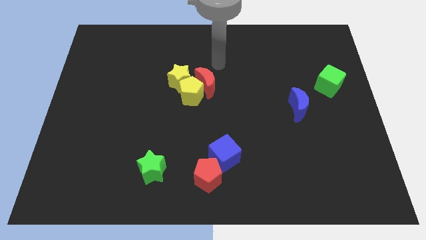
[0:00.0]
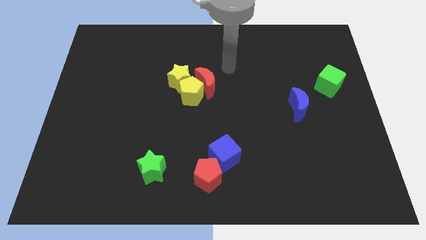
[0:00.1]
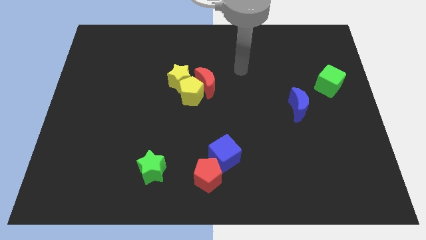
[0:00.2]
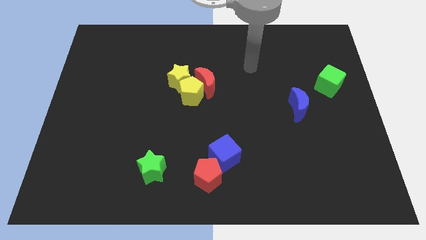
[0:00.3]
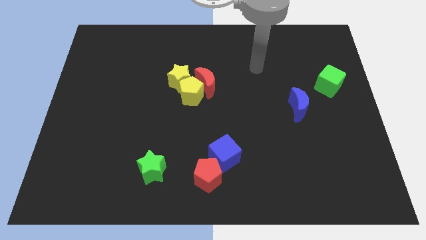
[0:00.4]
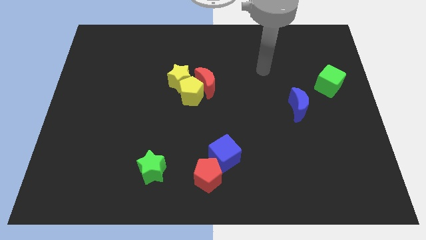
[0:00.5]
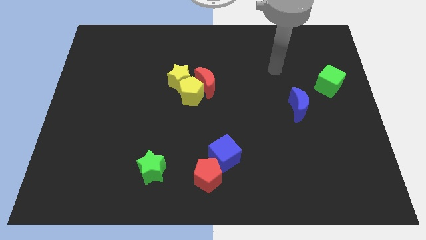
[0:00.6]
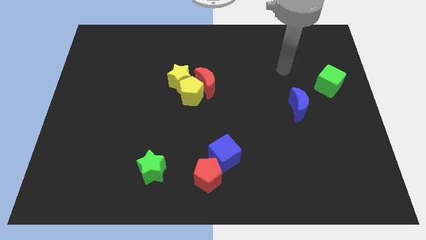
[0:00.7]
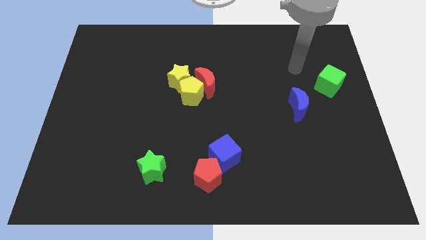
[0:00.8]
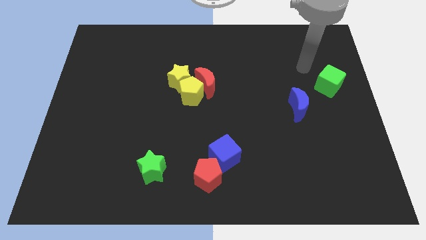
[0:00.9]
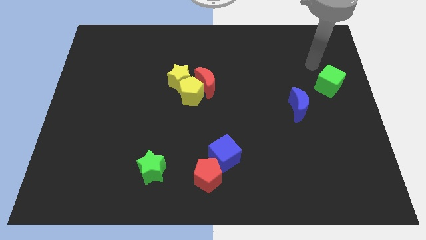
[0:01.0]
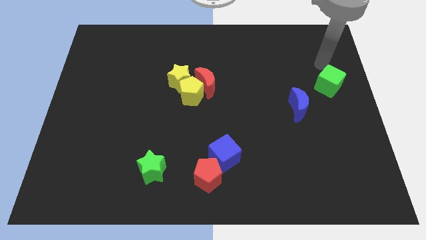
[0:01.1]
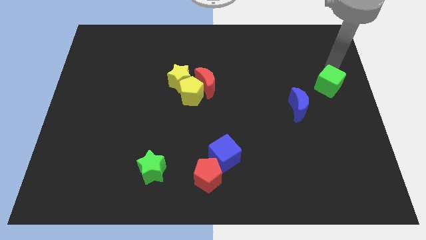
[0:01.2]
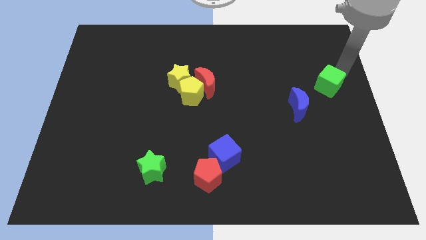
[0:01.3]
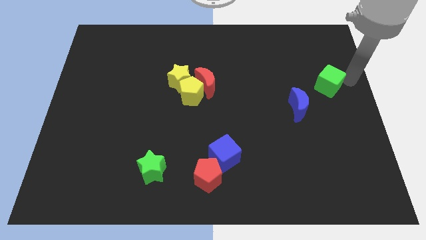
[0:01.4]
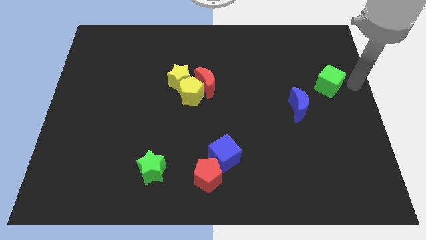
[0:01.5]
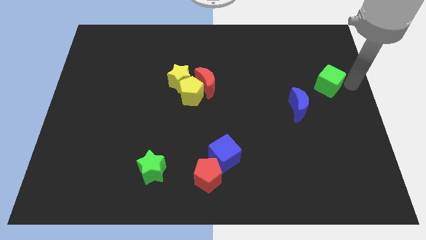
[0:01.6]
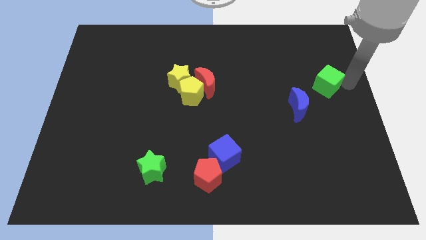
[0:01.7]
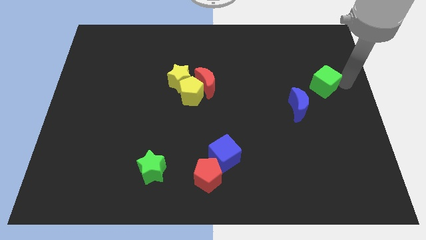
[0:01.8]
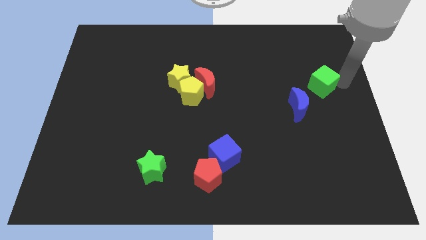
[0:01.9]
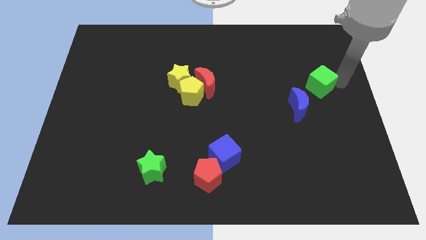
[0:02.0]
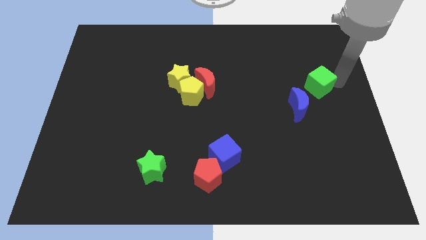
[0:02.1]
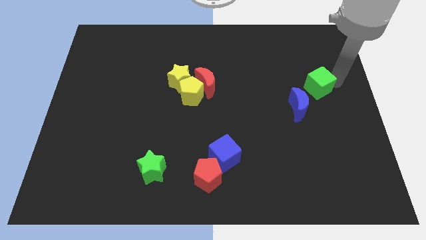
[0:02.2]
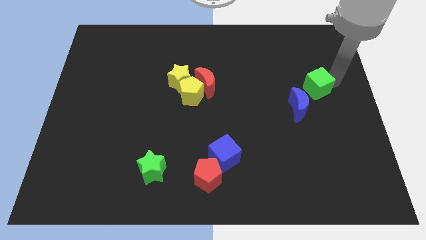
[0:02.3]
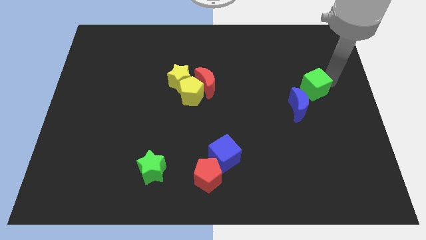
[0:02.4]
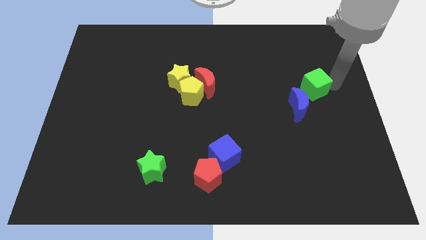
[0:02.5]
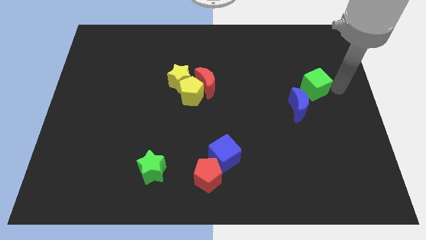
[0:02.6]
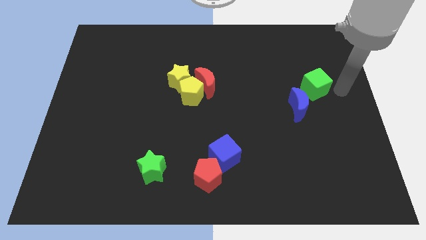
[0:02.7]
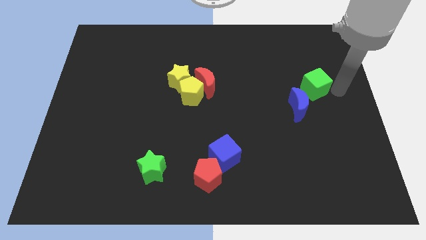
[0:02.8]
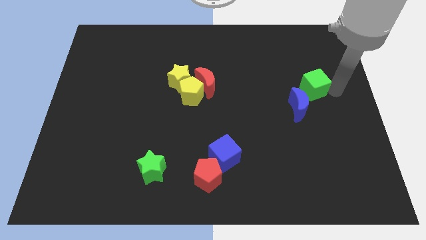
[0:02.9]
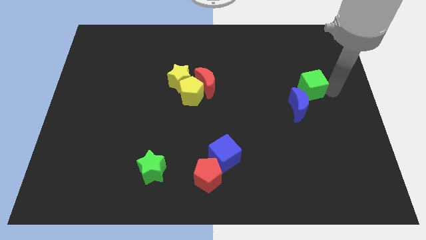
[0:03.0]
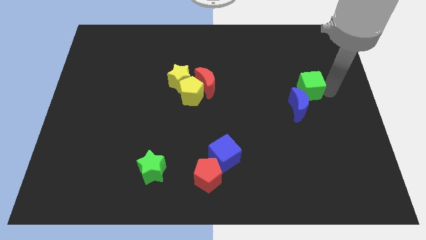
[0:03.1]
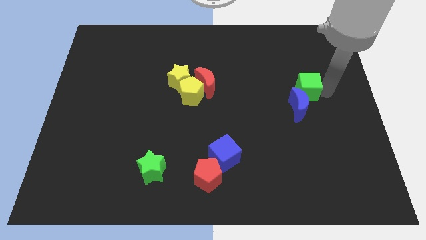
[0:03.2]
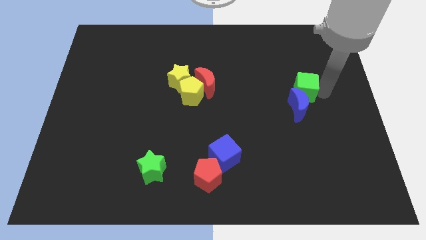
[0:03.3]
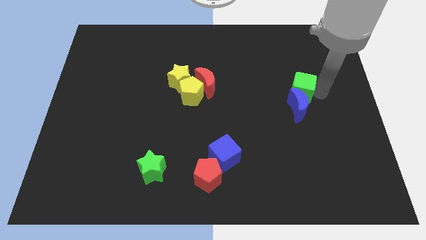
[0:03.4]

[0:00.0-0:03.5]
move the green cube somewhat left

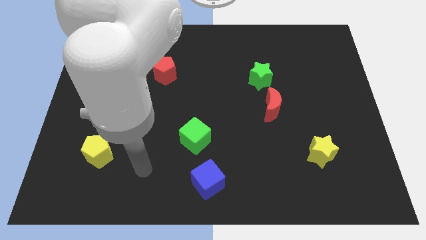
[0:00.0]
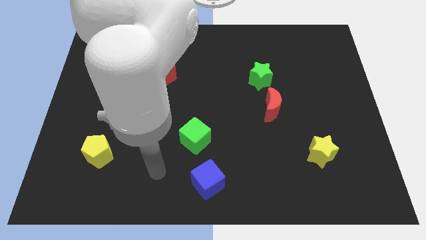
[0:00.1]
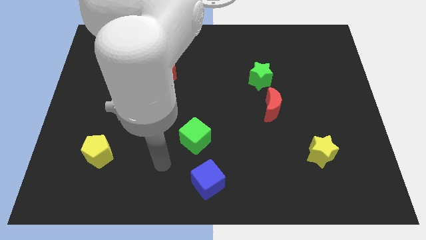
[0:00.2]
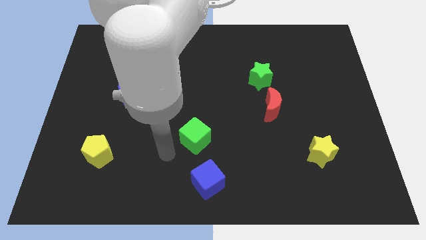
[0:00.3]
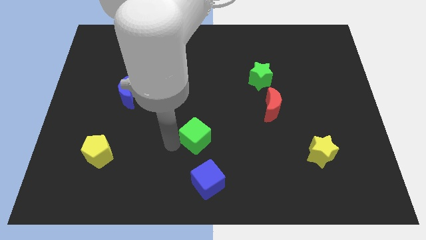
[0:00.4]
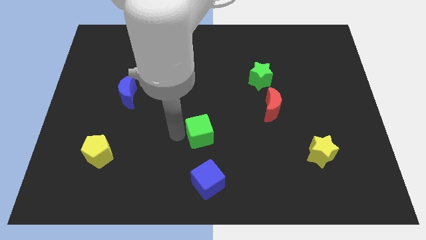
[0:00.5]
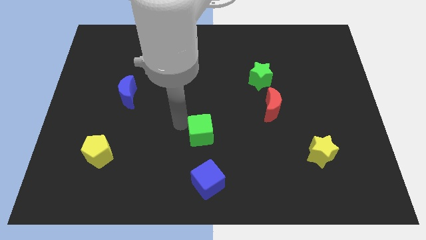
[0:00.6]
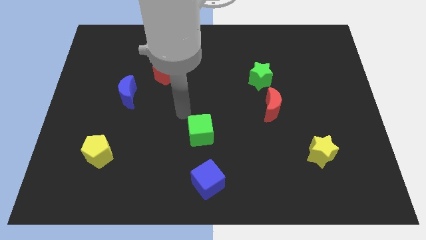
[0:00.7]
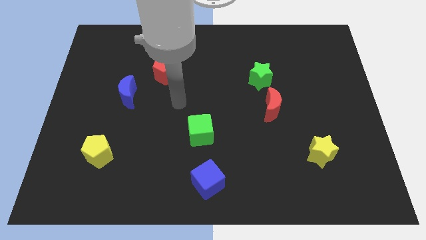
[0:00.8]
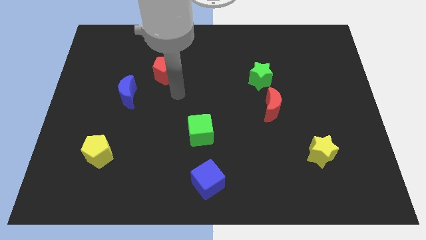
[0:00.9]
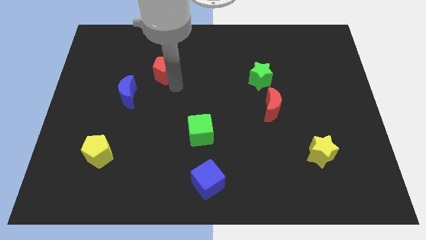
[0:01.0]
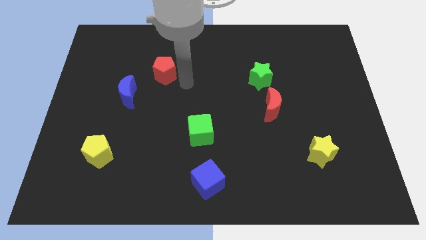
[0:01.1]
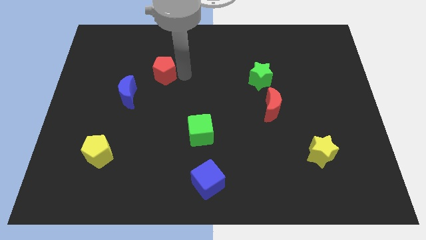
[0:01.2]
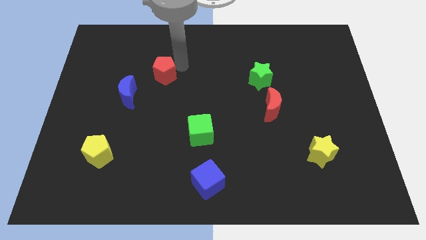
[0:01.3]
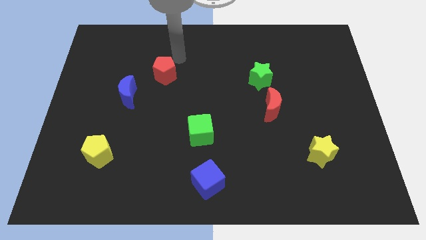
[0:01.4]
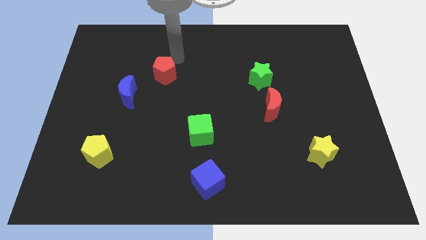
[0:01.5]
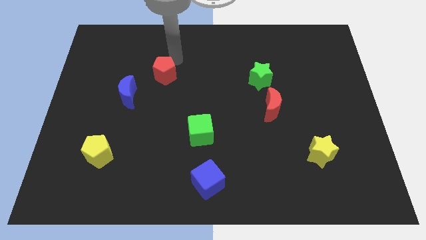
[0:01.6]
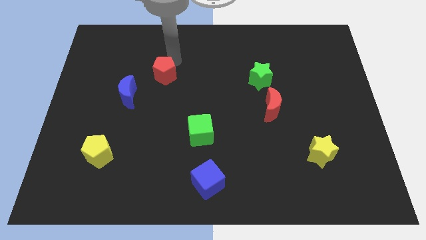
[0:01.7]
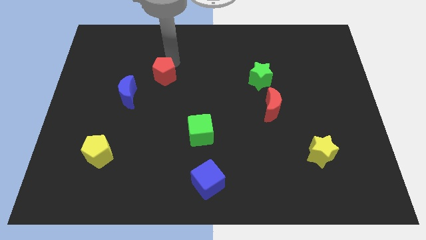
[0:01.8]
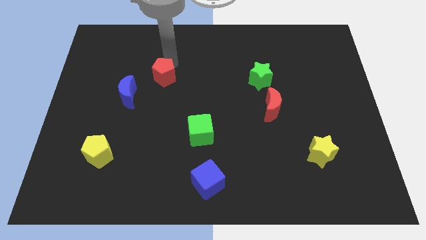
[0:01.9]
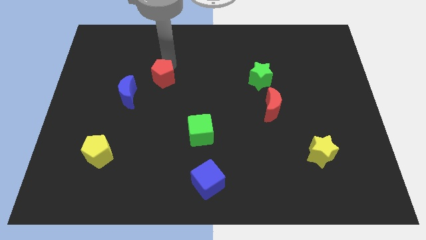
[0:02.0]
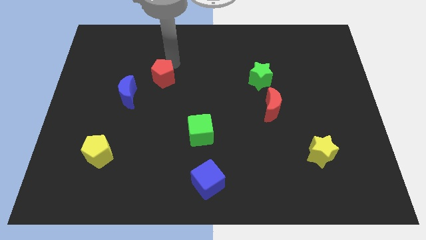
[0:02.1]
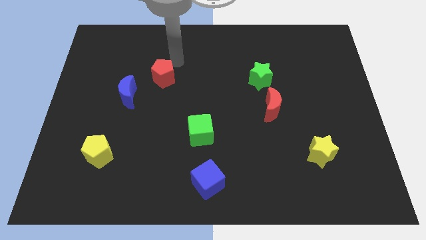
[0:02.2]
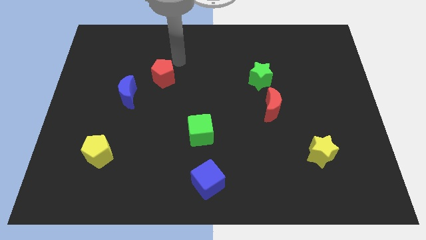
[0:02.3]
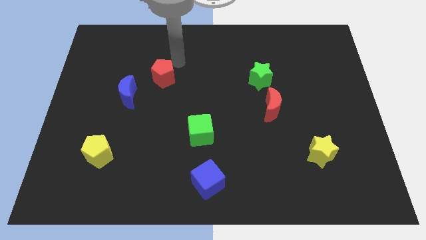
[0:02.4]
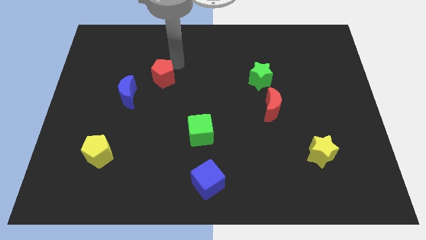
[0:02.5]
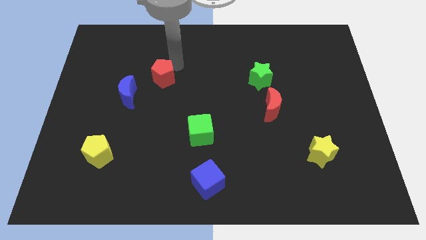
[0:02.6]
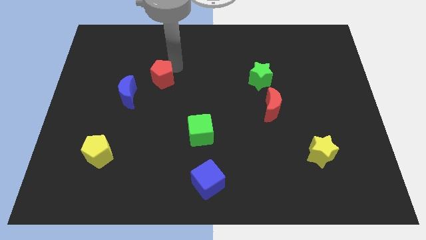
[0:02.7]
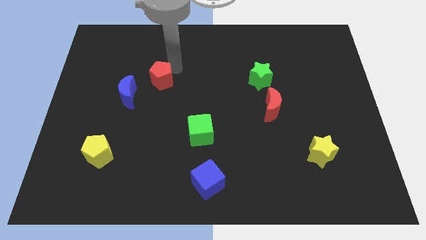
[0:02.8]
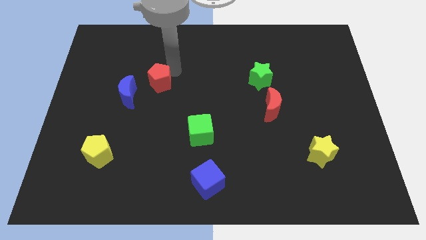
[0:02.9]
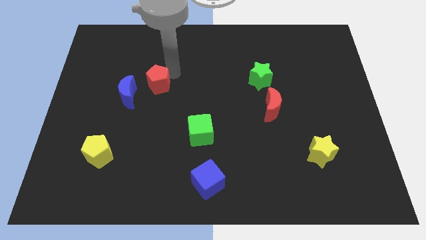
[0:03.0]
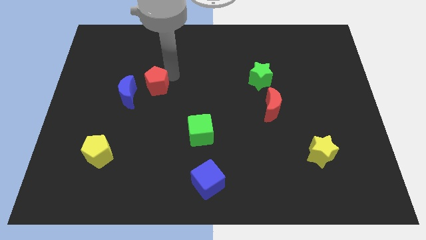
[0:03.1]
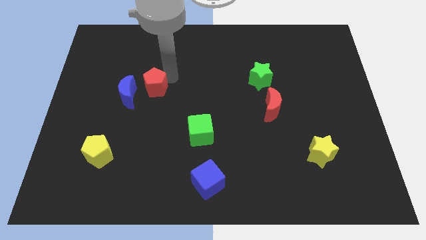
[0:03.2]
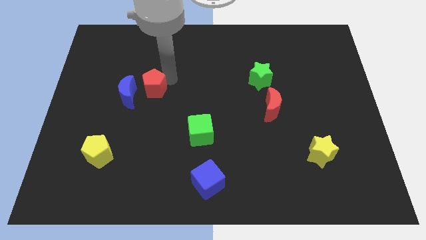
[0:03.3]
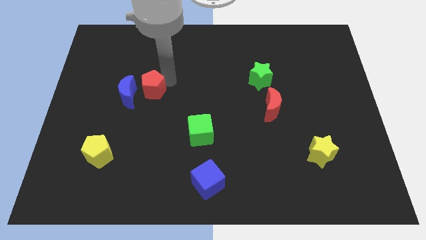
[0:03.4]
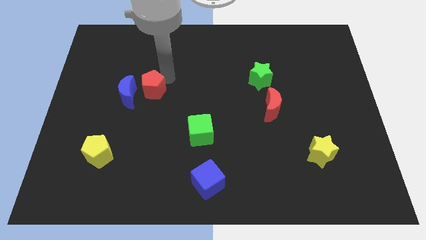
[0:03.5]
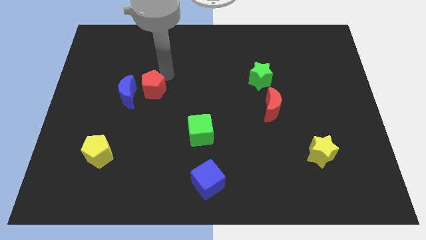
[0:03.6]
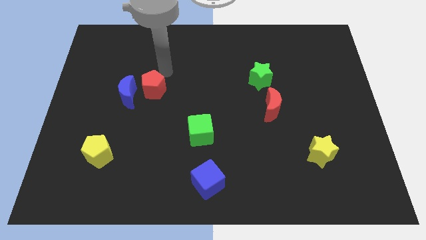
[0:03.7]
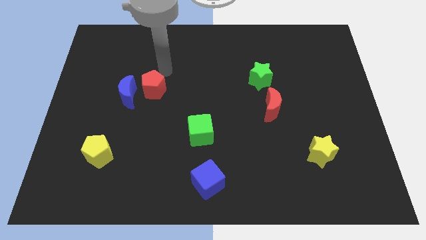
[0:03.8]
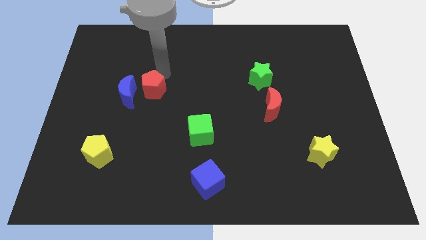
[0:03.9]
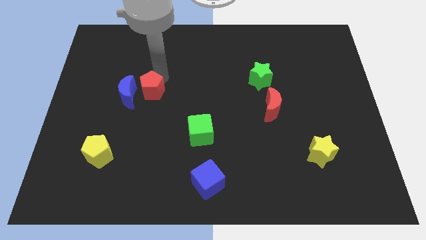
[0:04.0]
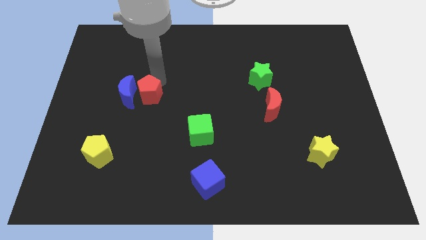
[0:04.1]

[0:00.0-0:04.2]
push the red pentagon a little downwards and left

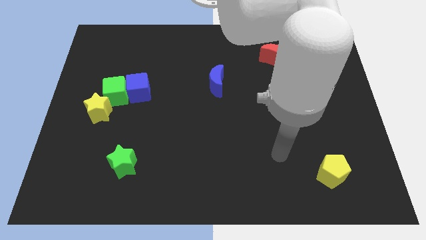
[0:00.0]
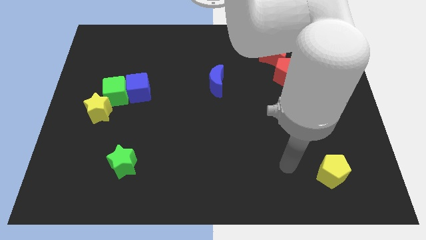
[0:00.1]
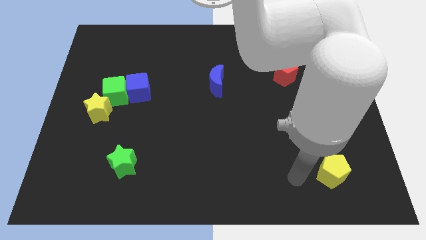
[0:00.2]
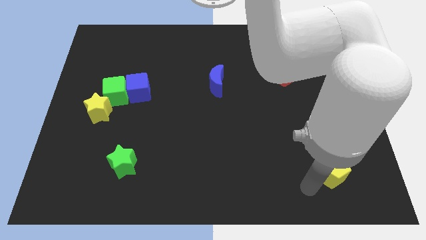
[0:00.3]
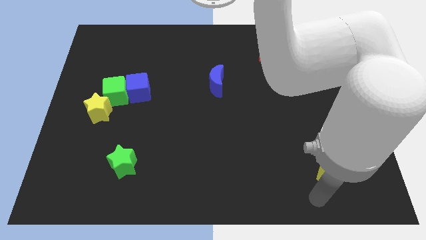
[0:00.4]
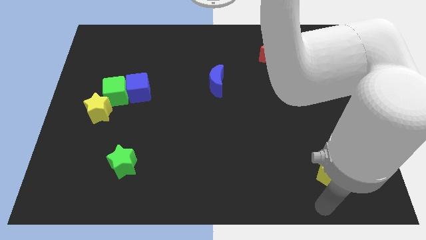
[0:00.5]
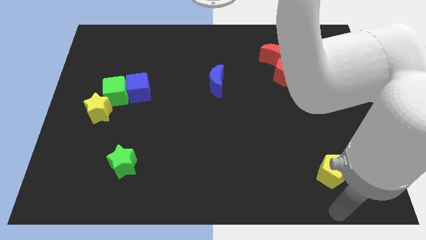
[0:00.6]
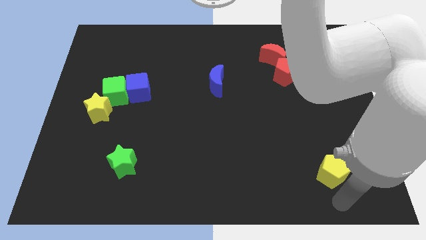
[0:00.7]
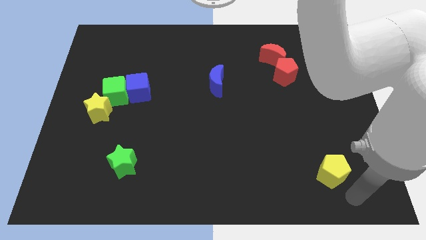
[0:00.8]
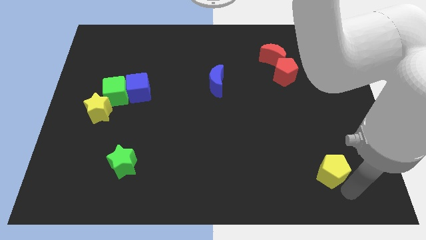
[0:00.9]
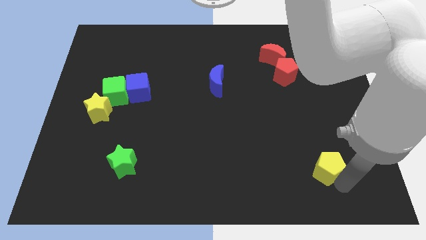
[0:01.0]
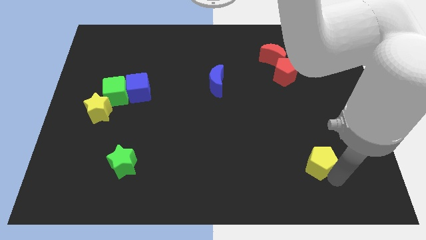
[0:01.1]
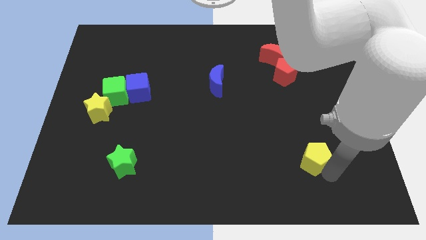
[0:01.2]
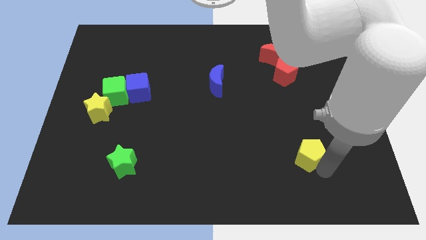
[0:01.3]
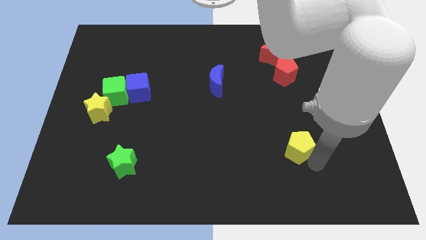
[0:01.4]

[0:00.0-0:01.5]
move the yellow pentagon a little upwards and left diagonally
